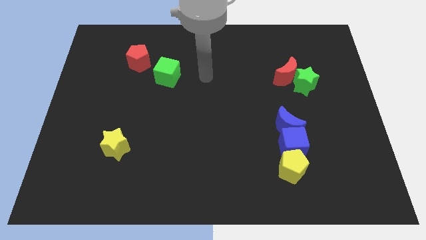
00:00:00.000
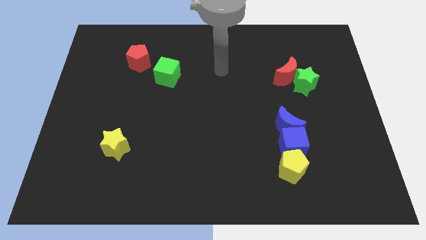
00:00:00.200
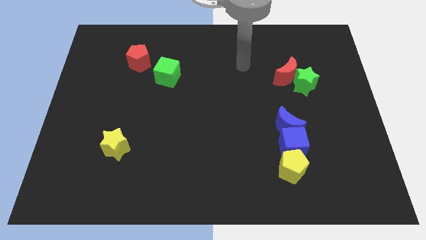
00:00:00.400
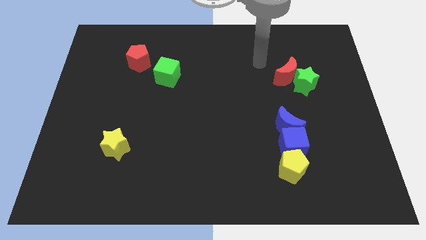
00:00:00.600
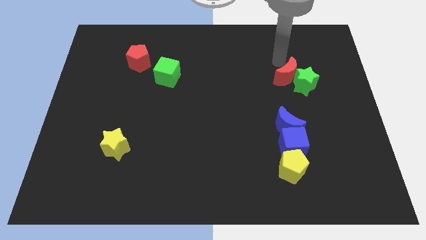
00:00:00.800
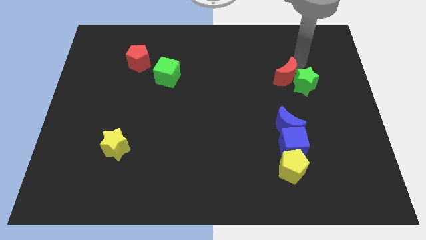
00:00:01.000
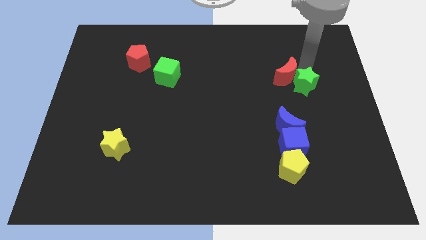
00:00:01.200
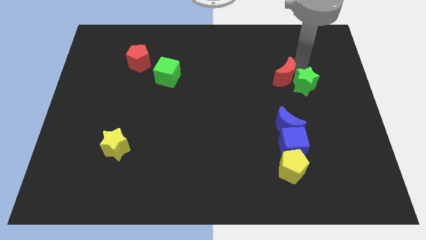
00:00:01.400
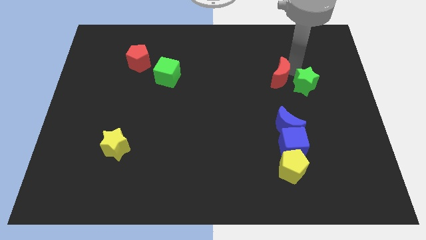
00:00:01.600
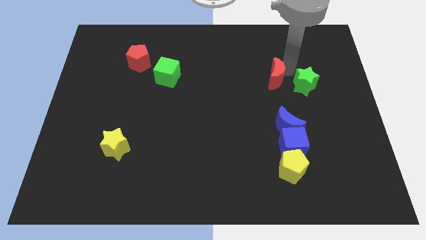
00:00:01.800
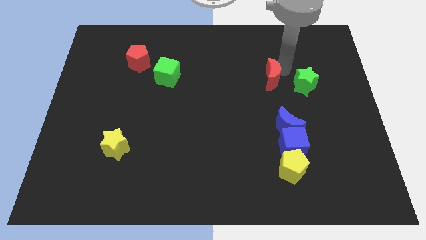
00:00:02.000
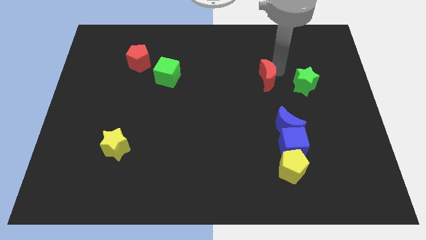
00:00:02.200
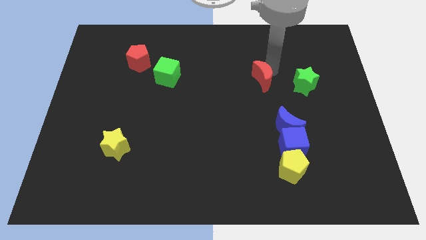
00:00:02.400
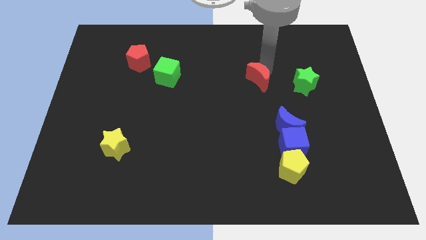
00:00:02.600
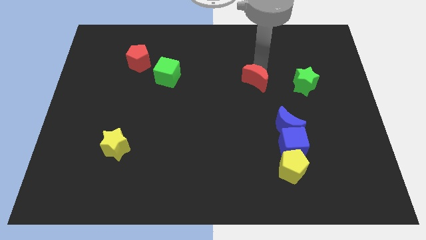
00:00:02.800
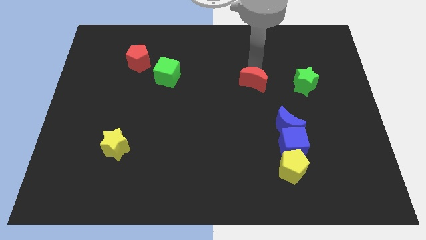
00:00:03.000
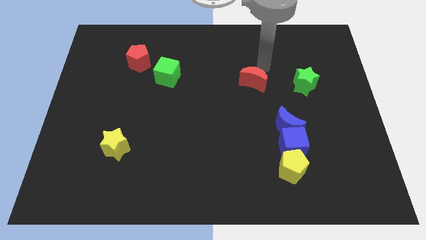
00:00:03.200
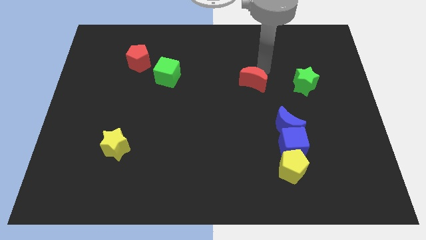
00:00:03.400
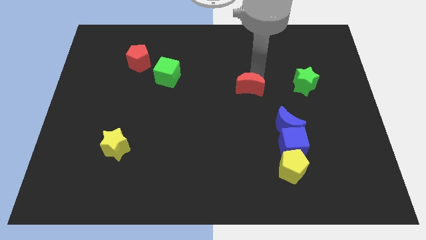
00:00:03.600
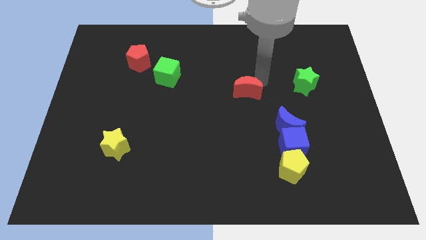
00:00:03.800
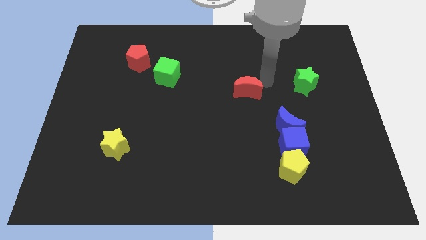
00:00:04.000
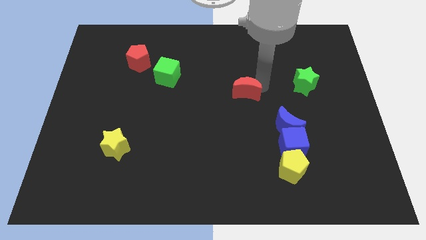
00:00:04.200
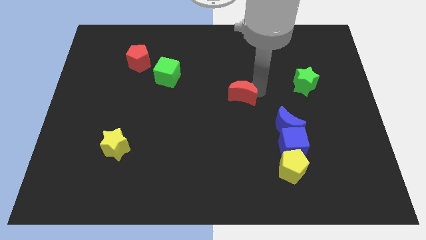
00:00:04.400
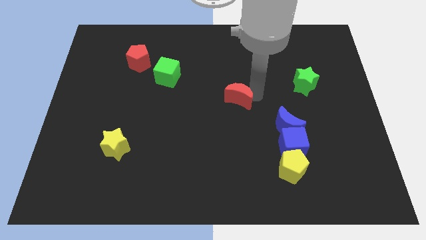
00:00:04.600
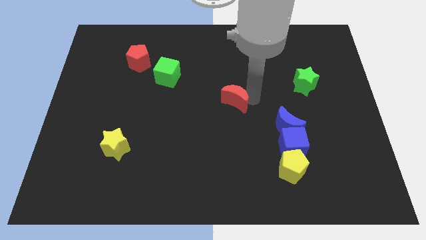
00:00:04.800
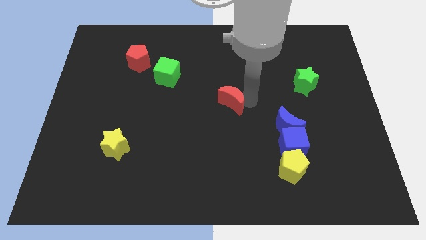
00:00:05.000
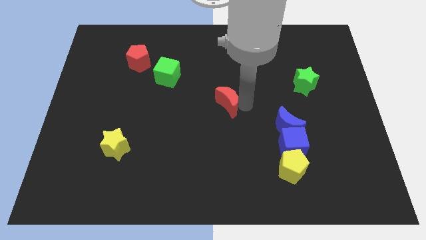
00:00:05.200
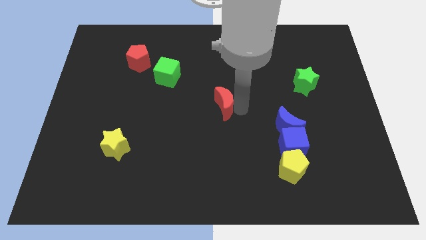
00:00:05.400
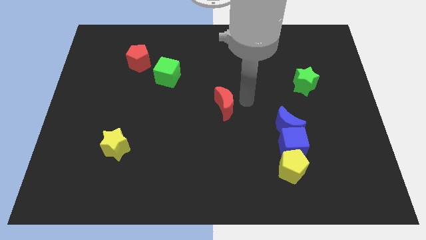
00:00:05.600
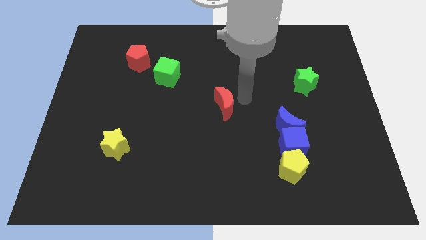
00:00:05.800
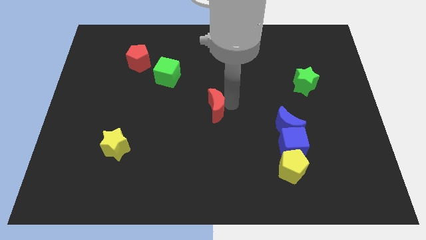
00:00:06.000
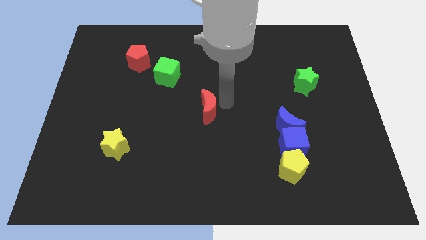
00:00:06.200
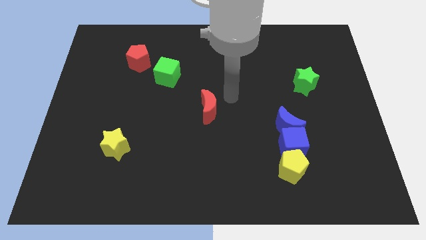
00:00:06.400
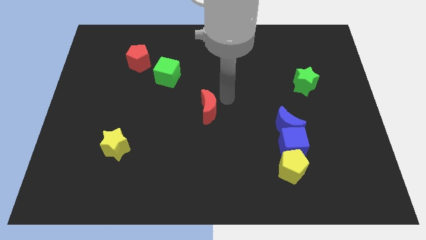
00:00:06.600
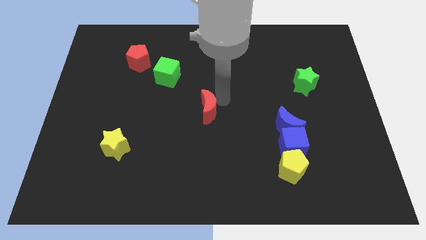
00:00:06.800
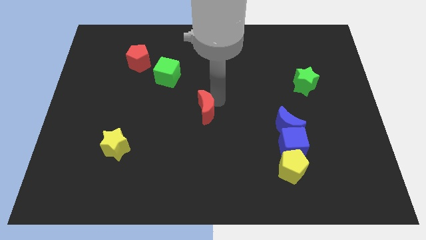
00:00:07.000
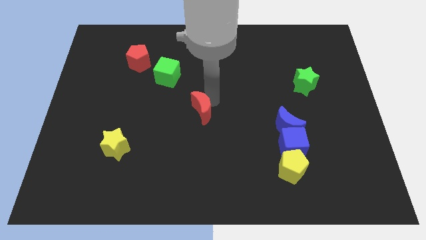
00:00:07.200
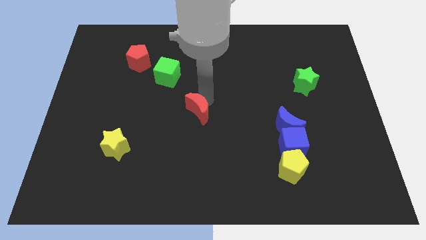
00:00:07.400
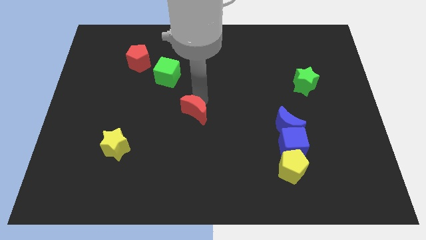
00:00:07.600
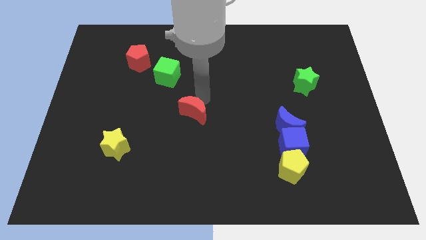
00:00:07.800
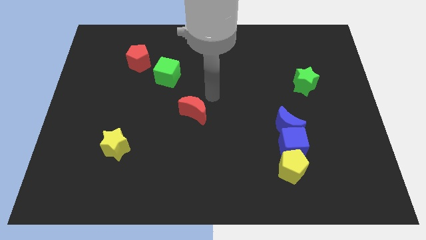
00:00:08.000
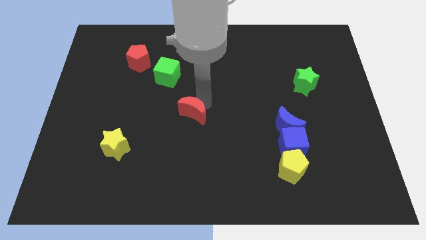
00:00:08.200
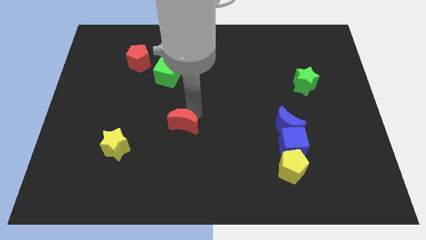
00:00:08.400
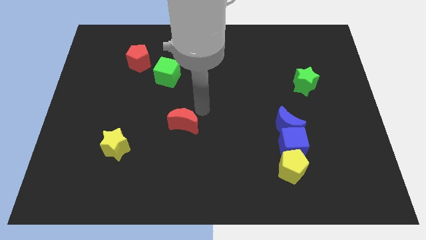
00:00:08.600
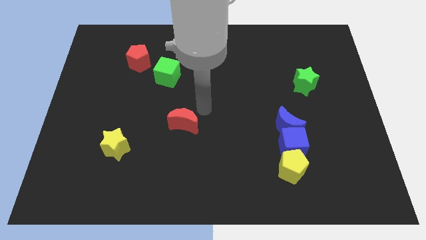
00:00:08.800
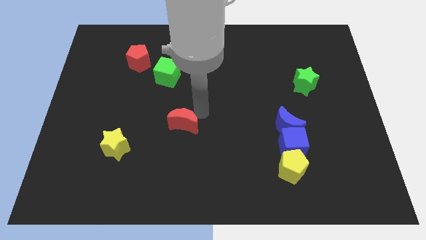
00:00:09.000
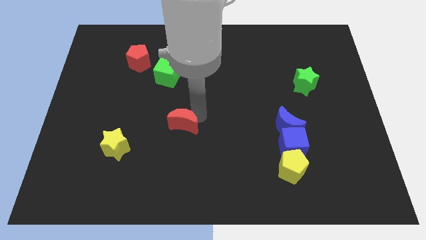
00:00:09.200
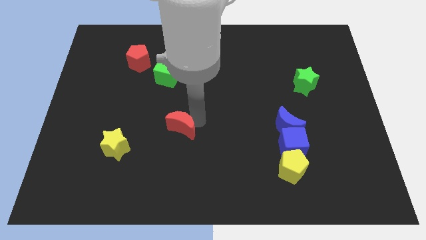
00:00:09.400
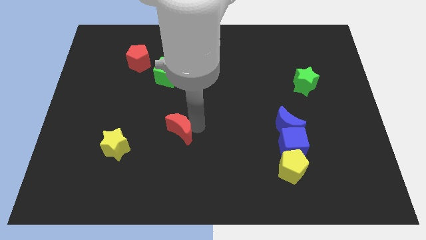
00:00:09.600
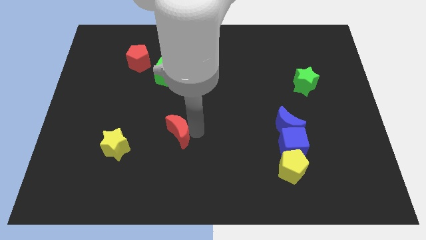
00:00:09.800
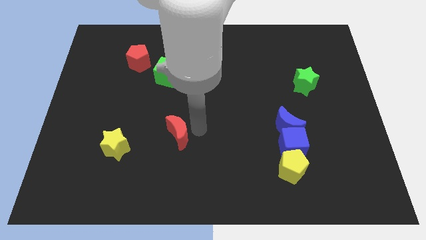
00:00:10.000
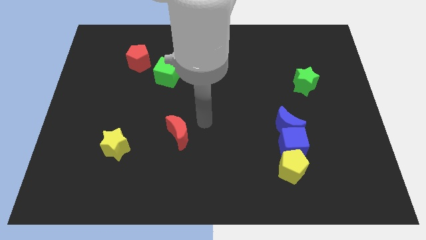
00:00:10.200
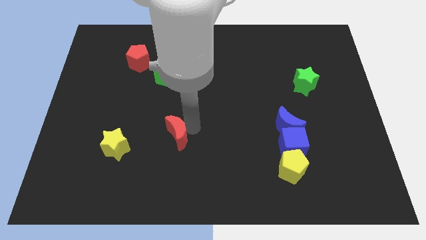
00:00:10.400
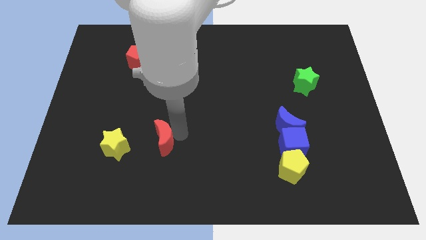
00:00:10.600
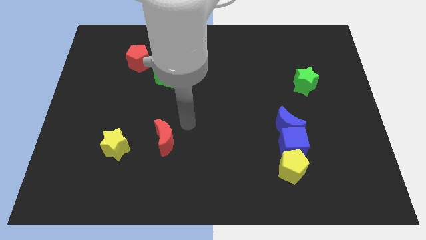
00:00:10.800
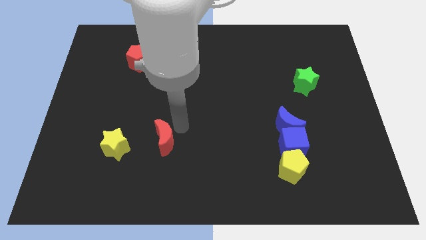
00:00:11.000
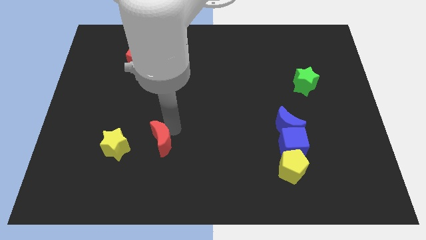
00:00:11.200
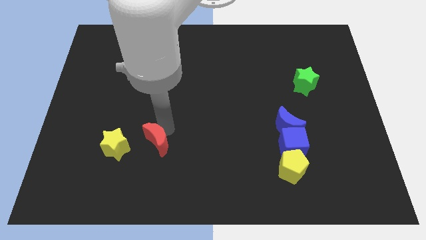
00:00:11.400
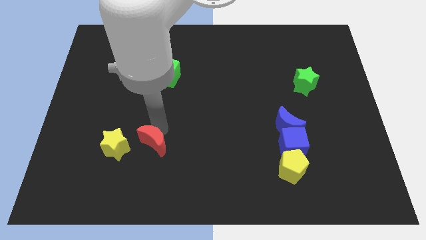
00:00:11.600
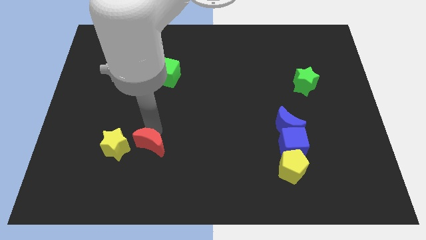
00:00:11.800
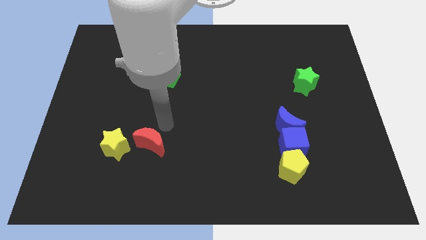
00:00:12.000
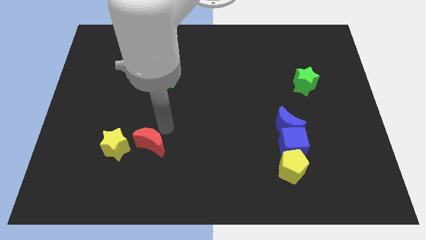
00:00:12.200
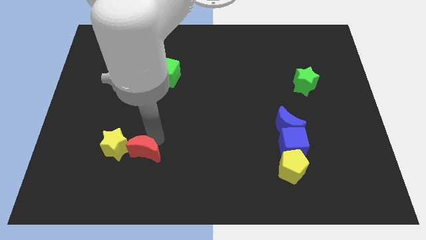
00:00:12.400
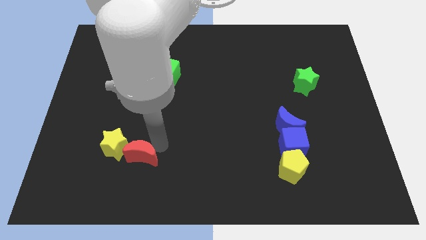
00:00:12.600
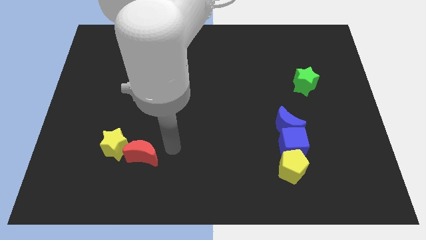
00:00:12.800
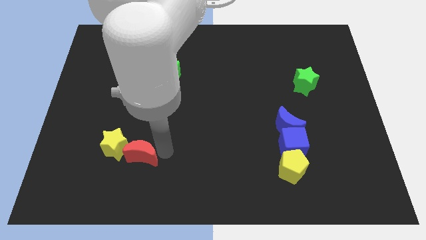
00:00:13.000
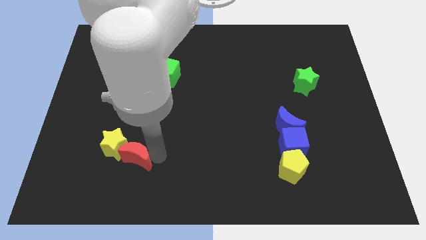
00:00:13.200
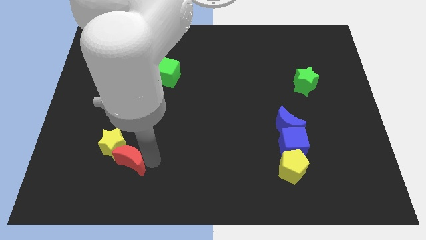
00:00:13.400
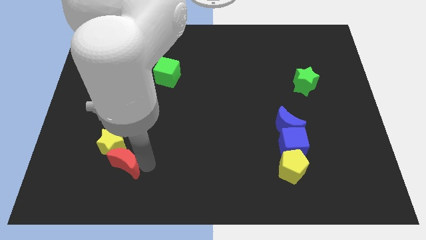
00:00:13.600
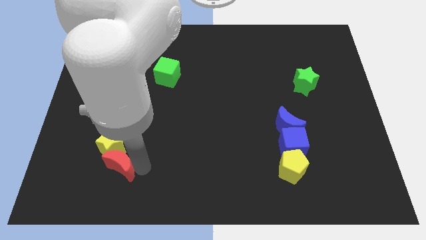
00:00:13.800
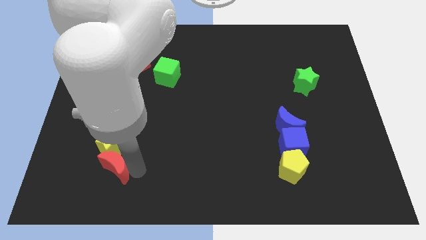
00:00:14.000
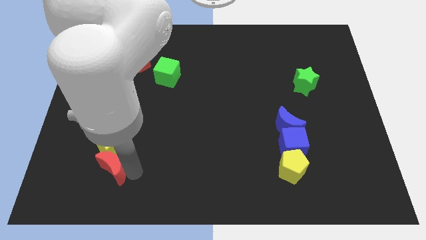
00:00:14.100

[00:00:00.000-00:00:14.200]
slide the red moon to the bottom left of the yellow star
